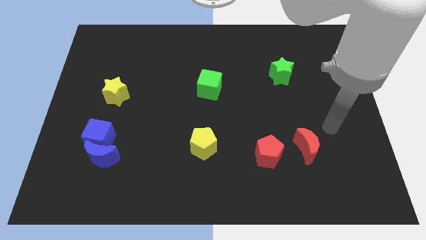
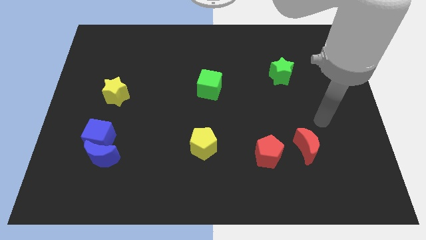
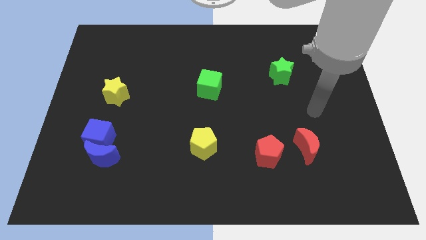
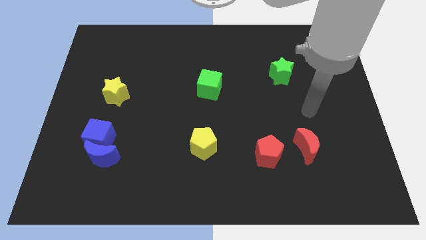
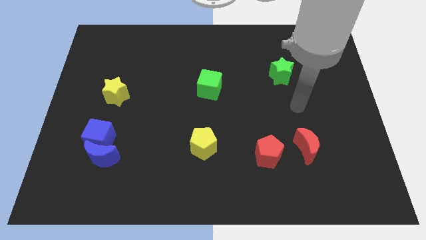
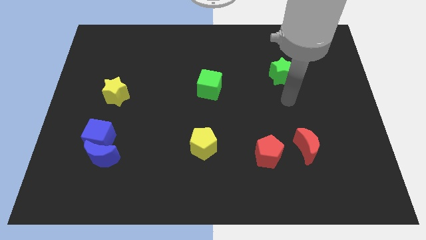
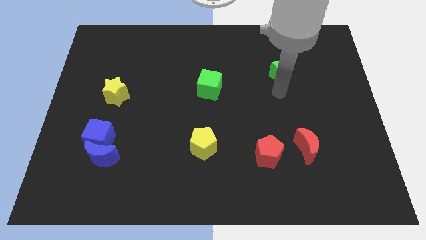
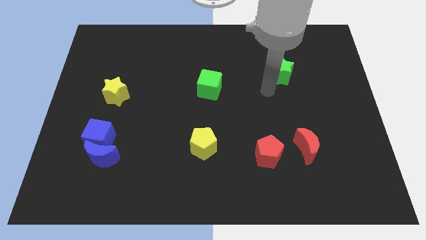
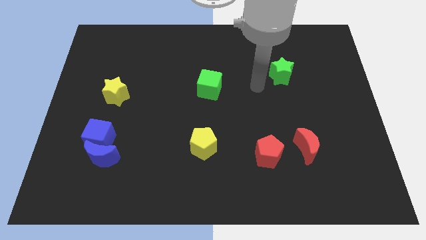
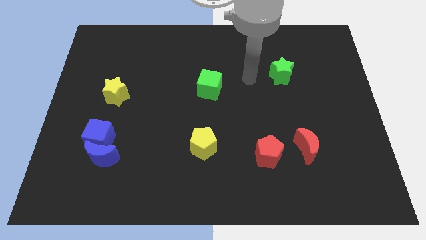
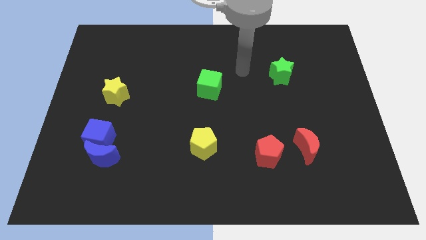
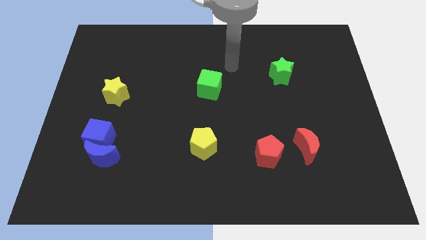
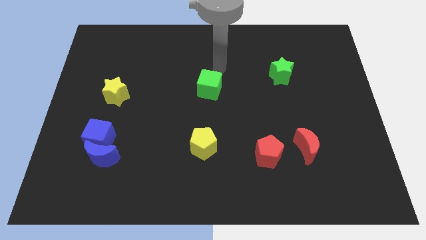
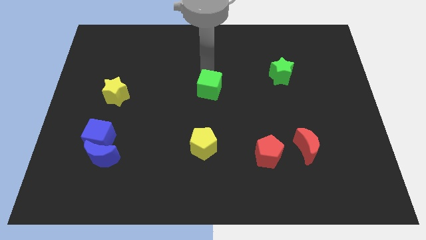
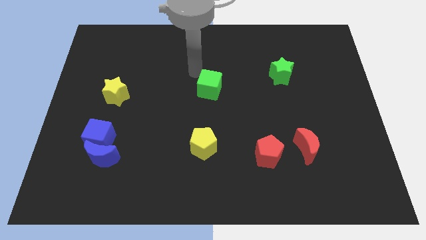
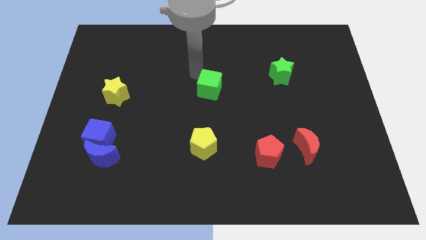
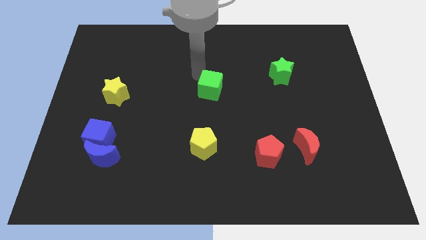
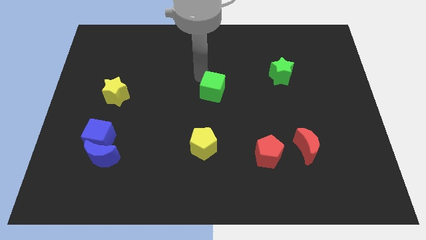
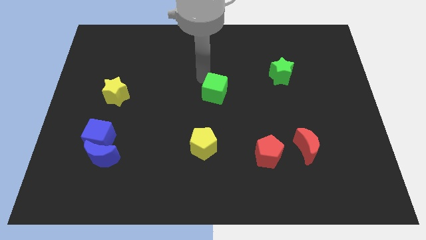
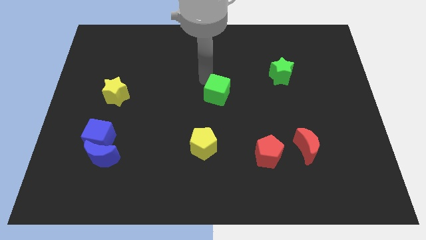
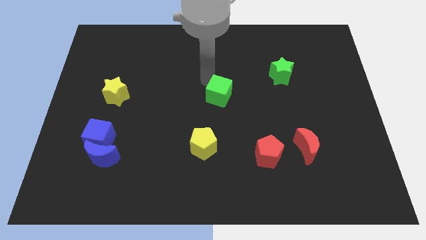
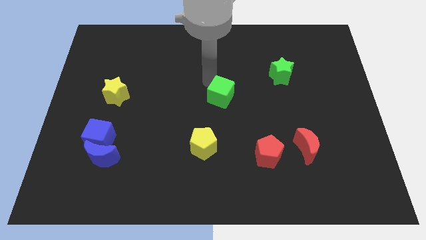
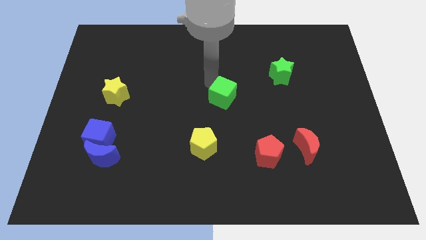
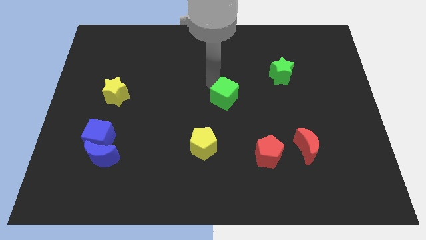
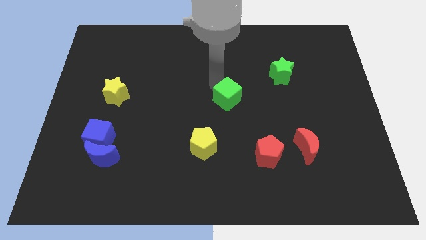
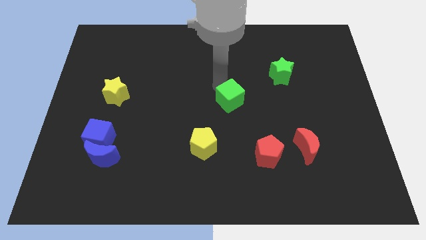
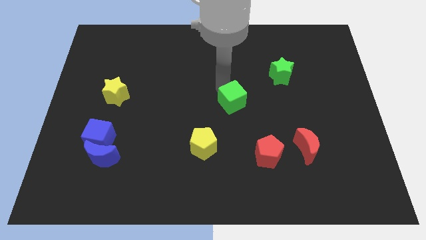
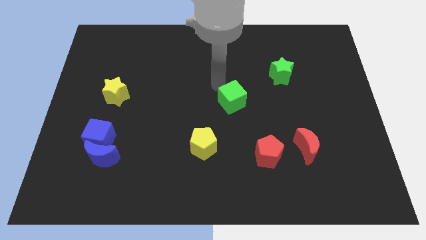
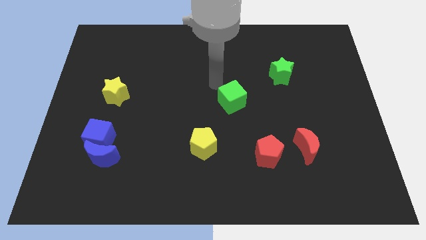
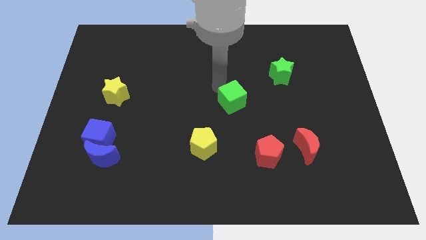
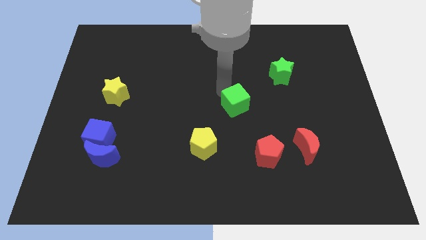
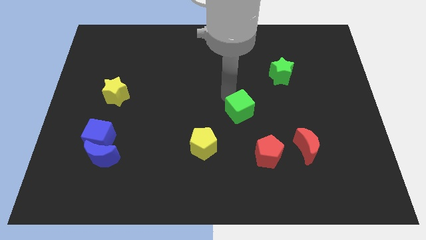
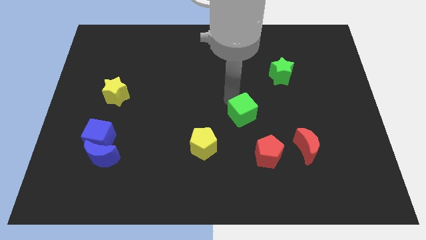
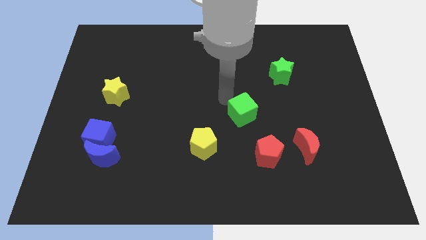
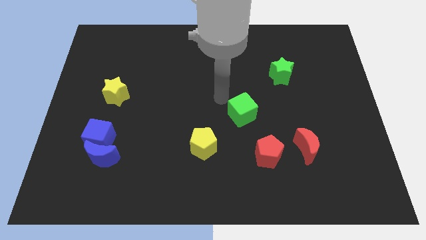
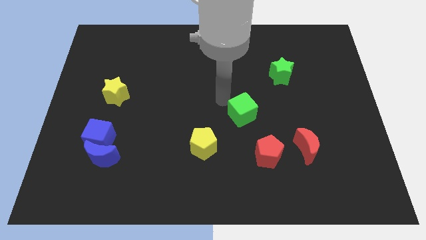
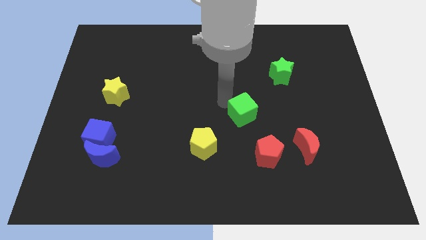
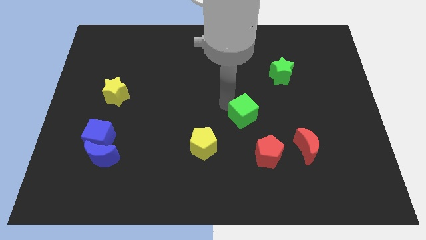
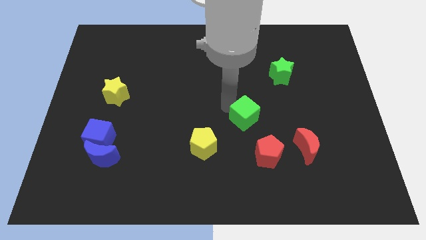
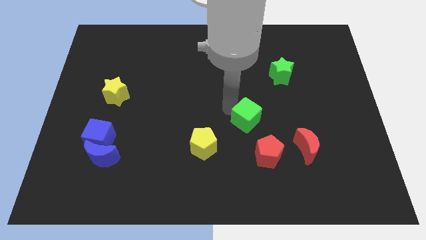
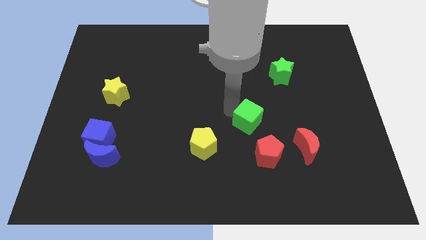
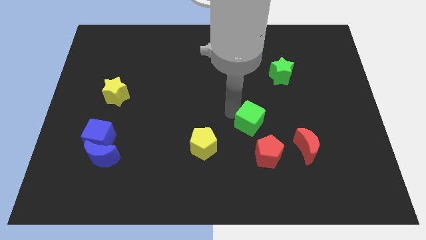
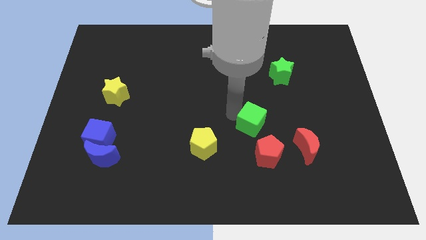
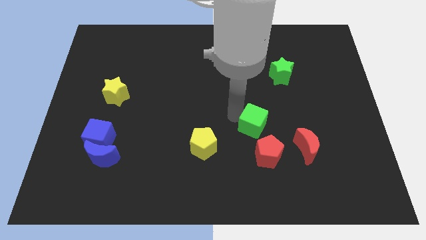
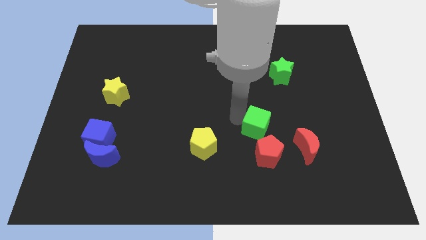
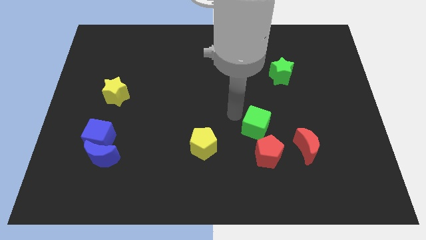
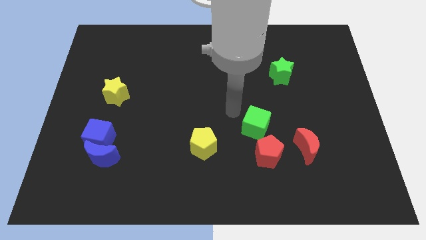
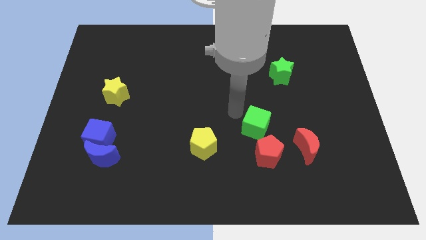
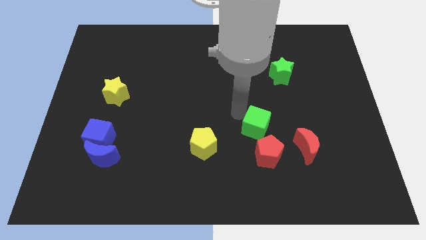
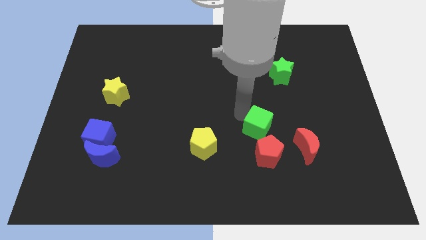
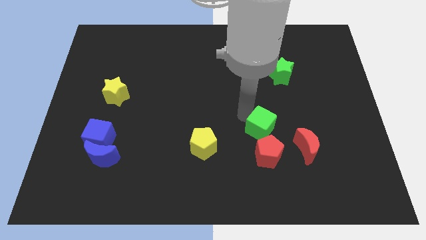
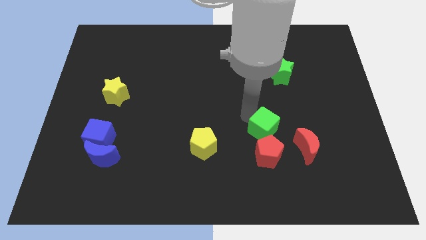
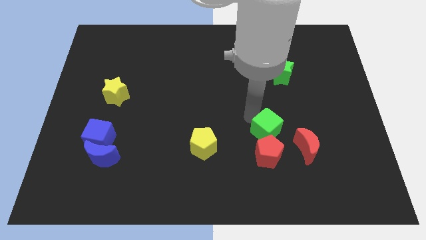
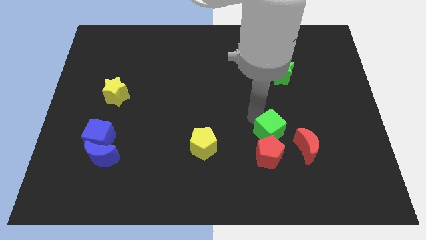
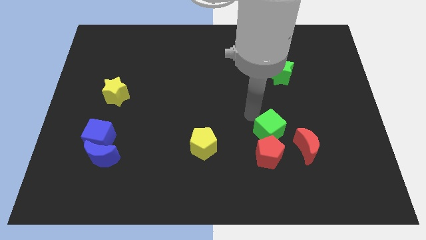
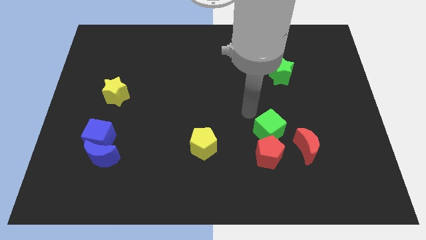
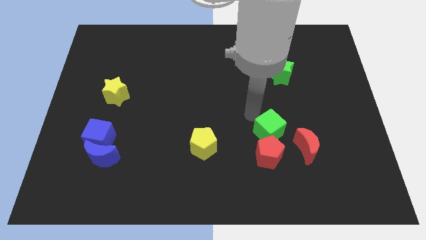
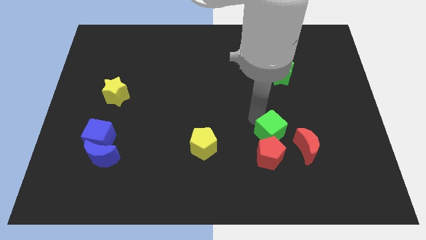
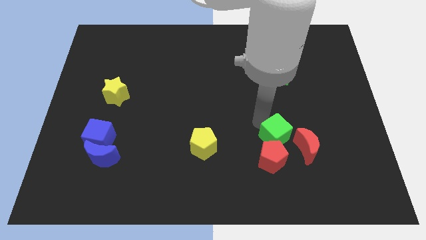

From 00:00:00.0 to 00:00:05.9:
slide the green cube down and right diagonally

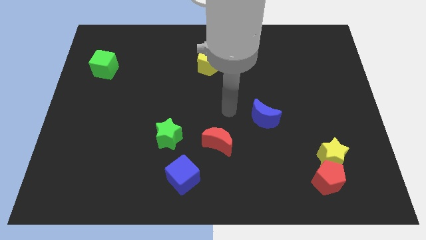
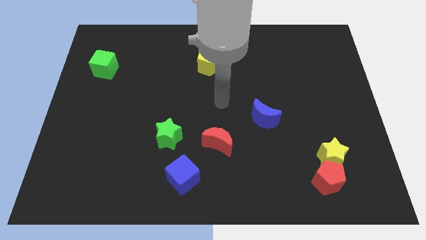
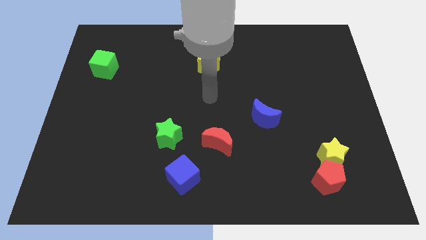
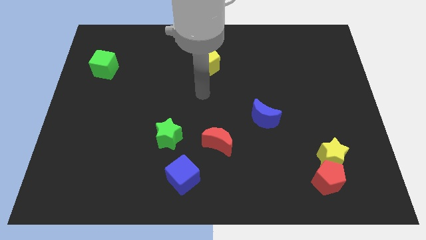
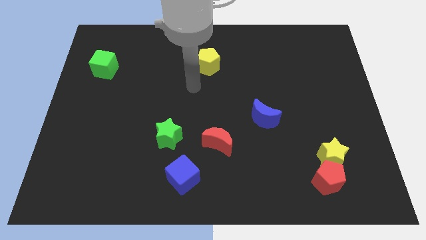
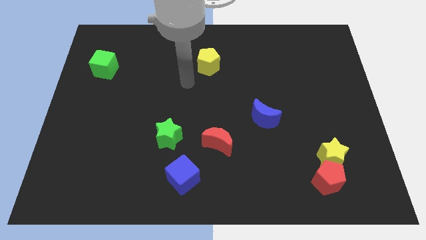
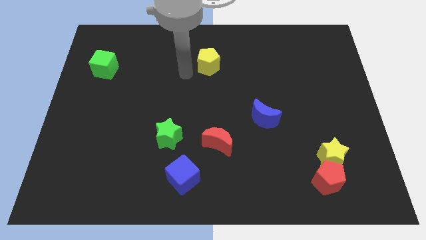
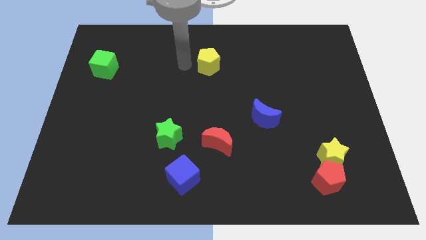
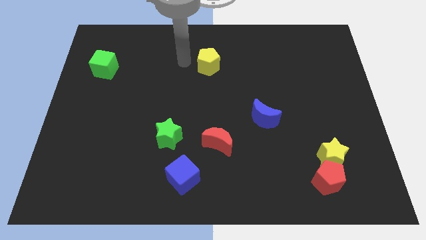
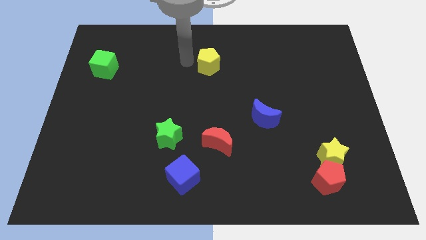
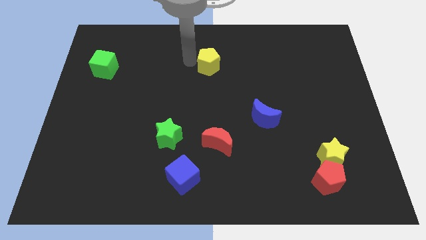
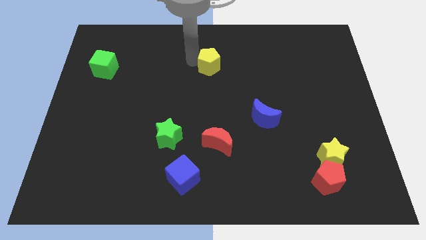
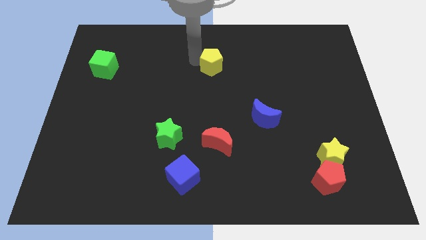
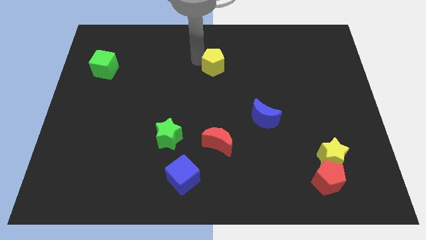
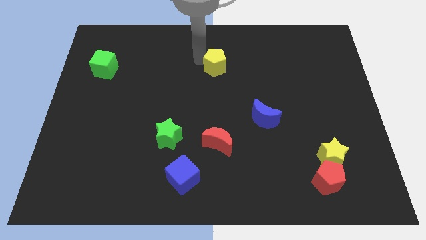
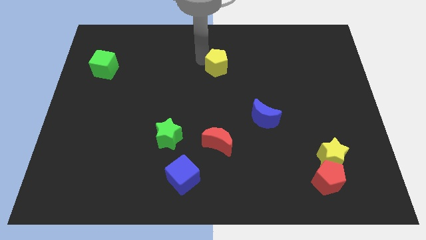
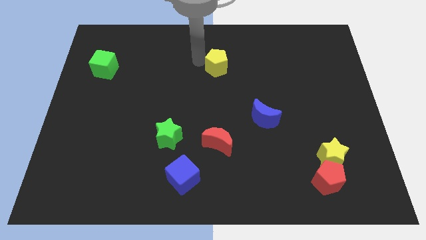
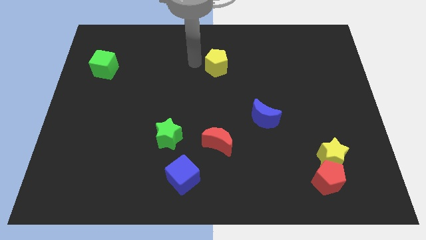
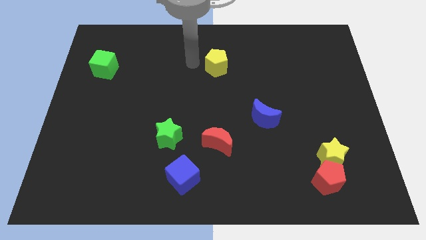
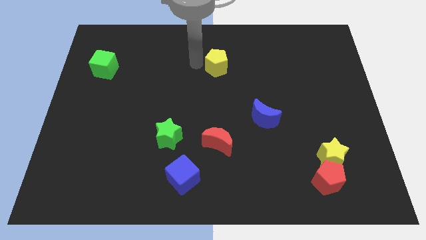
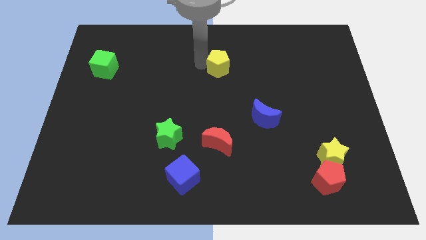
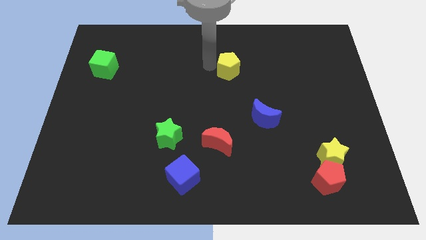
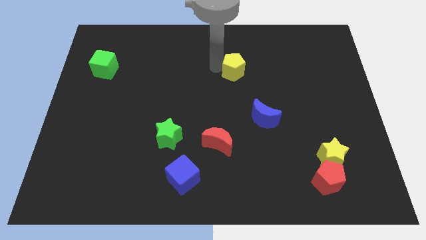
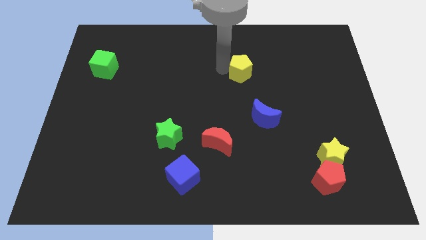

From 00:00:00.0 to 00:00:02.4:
slightly slide the yellow pentagon right
